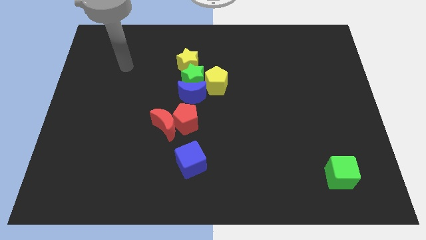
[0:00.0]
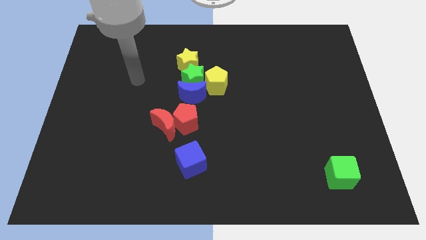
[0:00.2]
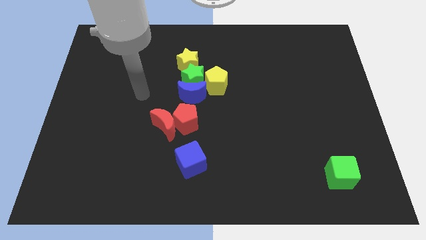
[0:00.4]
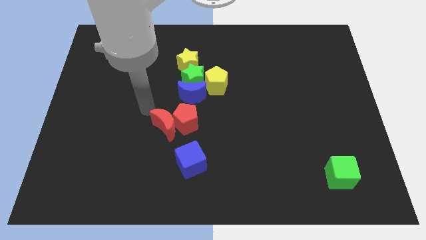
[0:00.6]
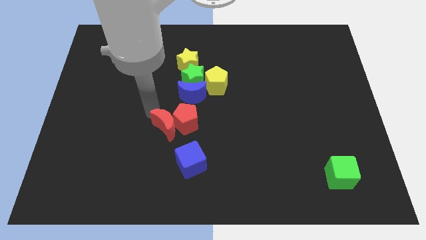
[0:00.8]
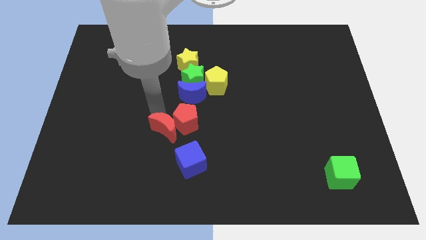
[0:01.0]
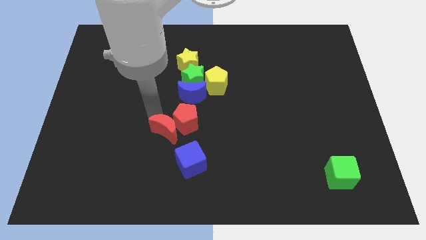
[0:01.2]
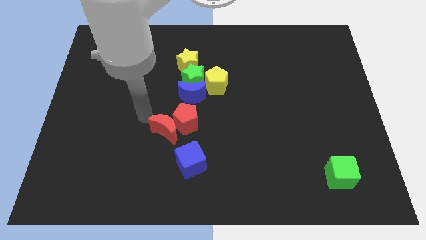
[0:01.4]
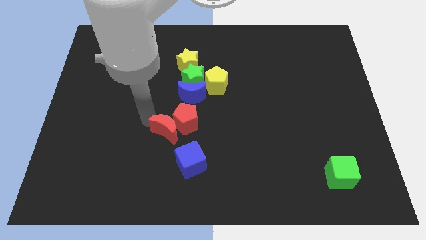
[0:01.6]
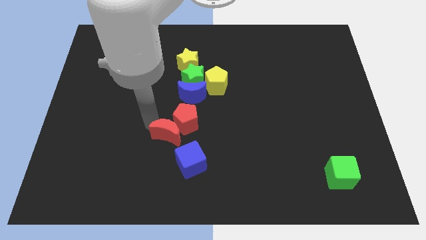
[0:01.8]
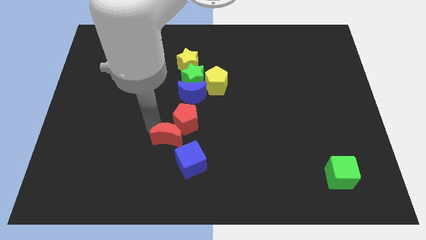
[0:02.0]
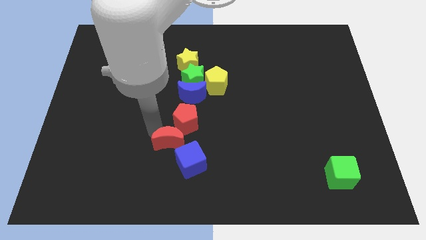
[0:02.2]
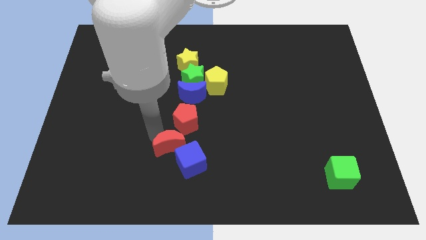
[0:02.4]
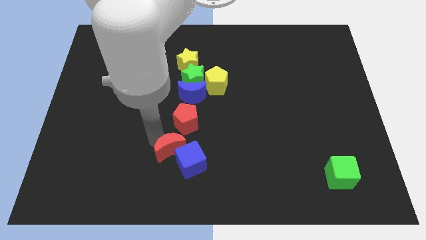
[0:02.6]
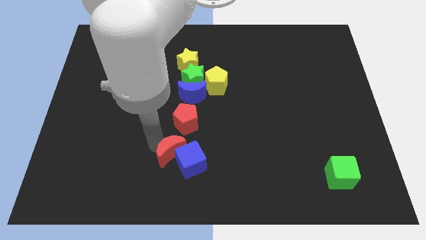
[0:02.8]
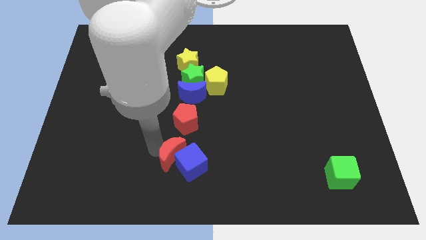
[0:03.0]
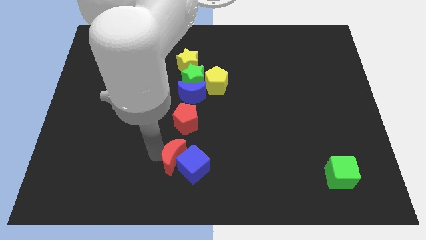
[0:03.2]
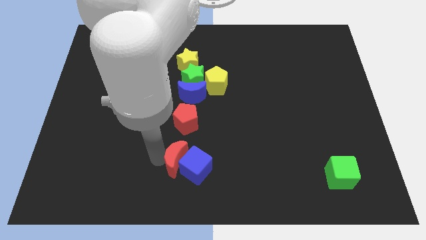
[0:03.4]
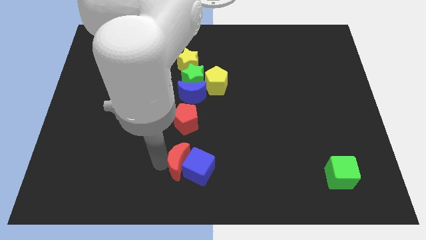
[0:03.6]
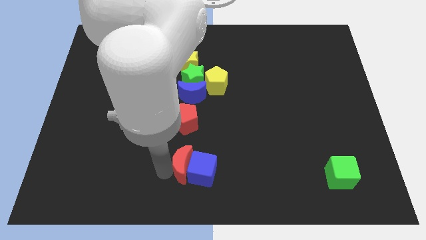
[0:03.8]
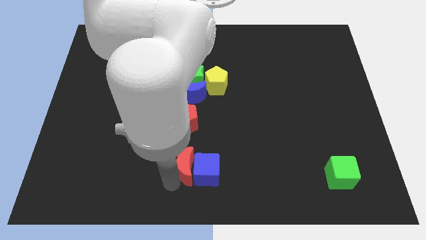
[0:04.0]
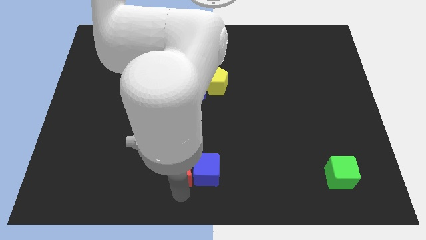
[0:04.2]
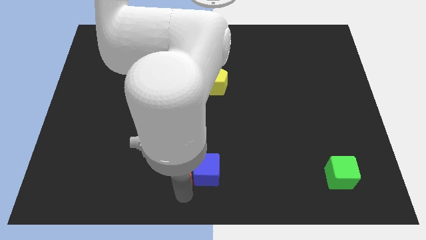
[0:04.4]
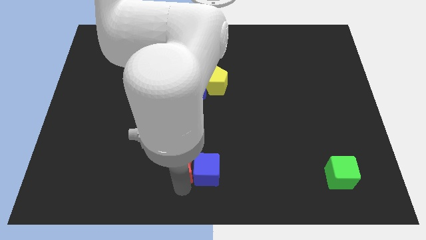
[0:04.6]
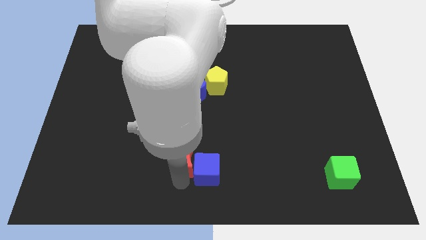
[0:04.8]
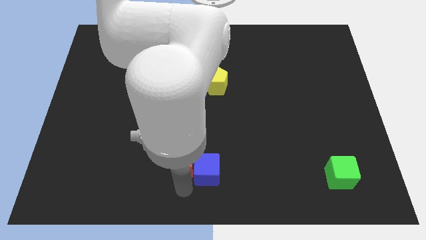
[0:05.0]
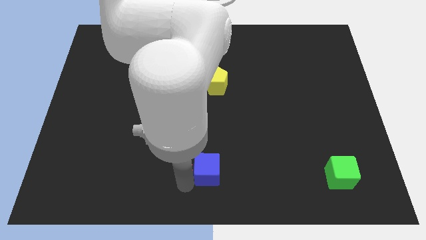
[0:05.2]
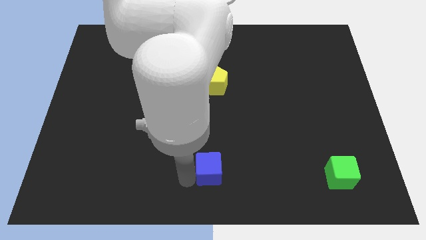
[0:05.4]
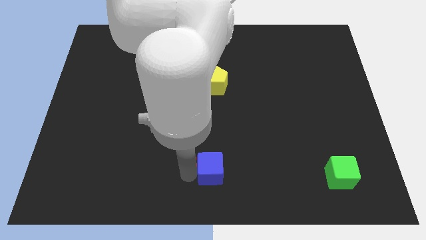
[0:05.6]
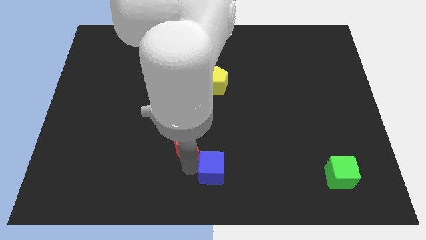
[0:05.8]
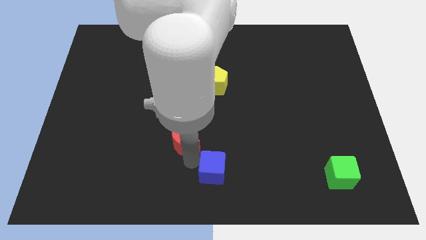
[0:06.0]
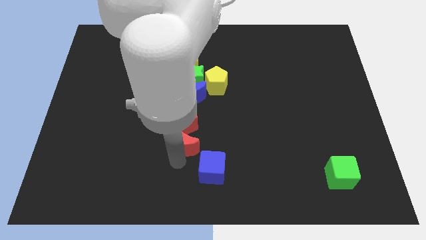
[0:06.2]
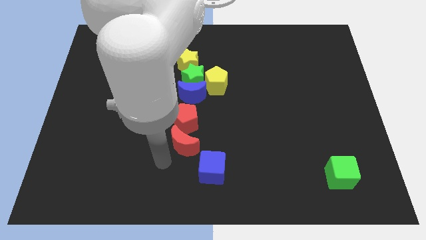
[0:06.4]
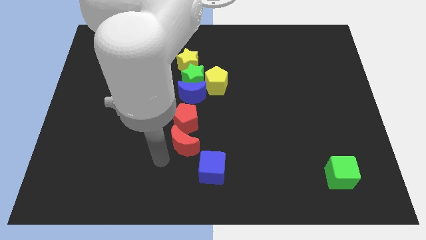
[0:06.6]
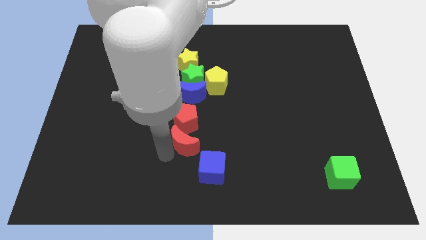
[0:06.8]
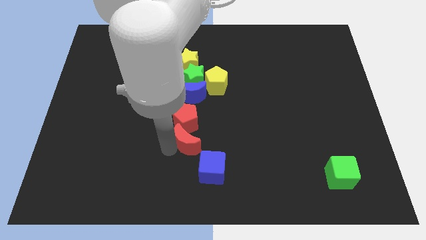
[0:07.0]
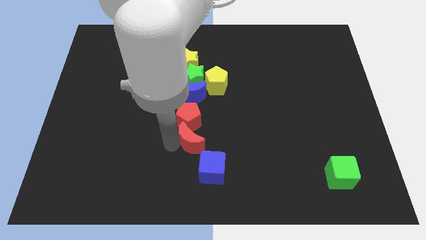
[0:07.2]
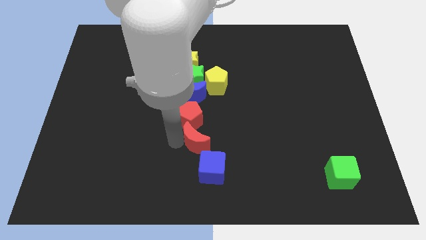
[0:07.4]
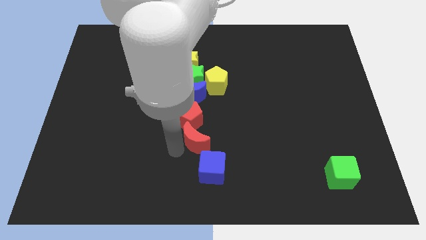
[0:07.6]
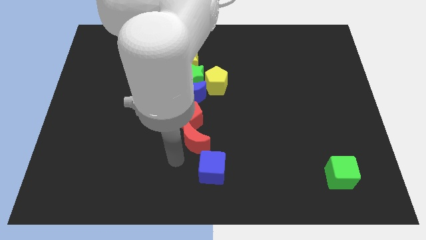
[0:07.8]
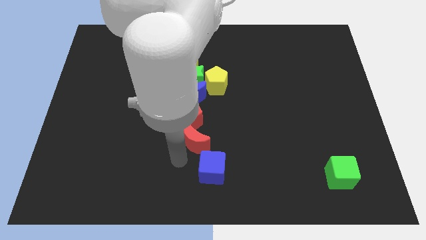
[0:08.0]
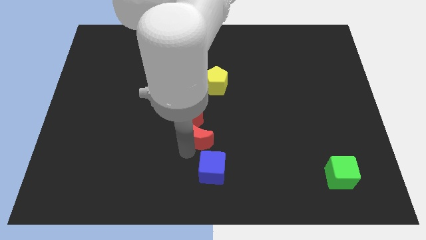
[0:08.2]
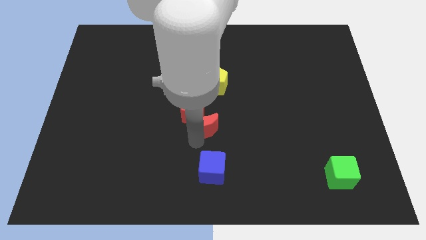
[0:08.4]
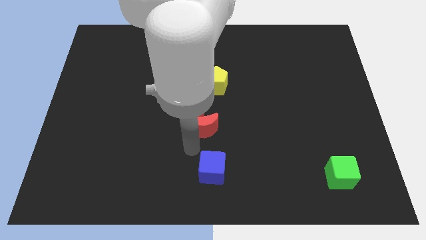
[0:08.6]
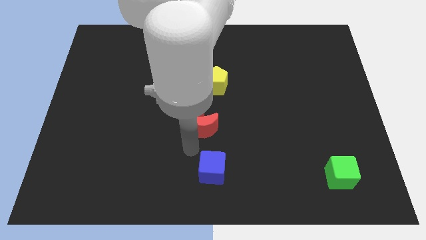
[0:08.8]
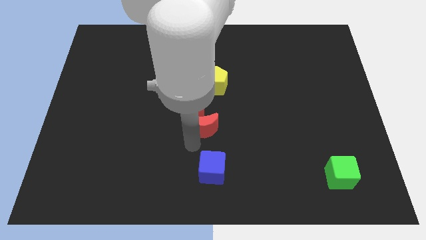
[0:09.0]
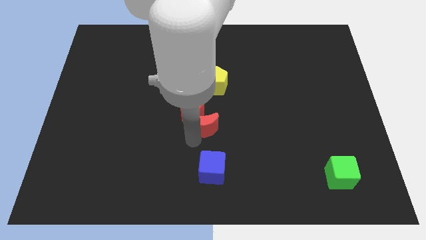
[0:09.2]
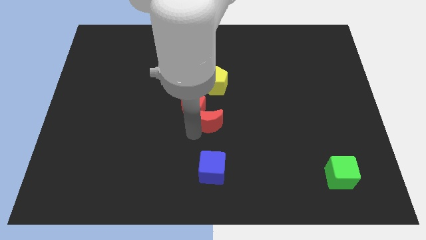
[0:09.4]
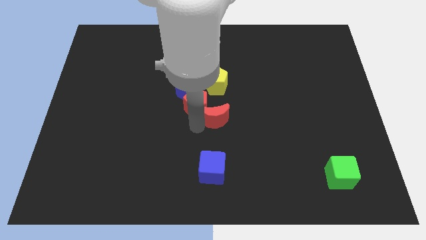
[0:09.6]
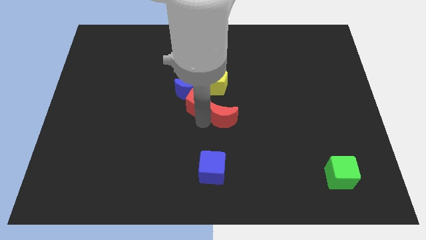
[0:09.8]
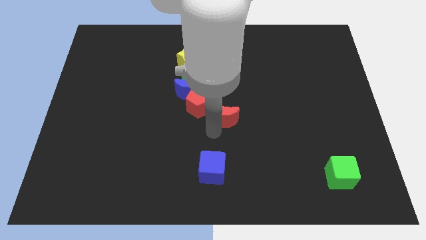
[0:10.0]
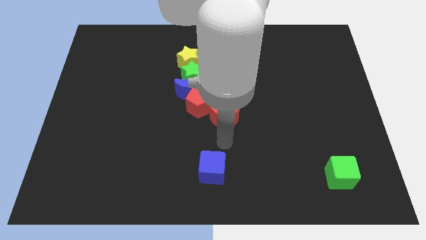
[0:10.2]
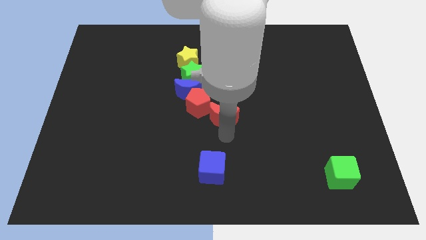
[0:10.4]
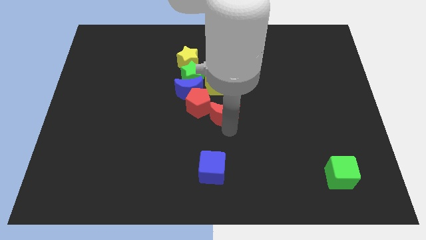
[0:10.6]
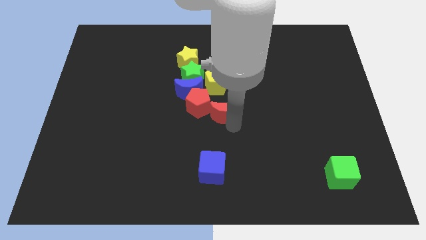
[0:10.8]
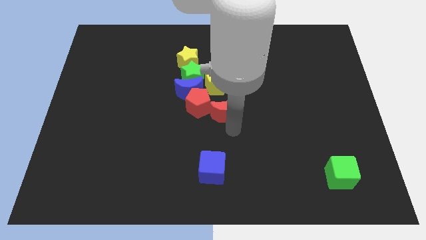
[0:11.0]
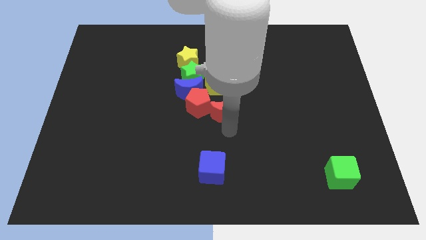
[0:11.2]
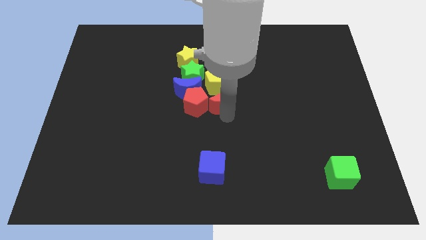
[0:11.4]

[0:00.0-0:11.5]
slide the red moon to the top right of the red pentagon

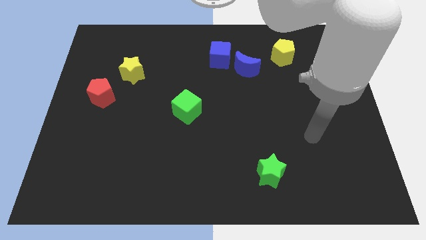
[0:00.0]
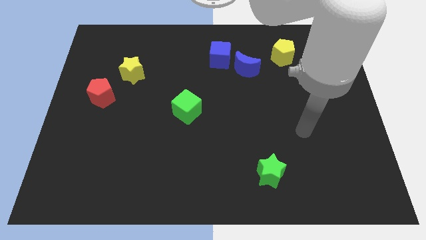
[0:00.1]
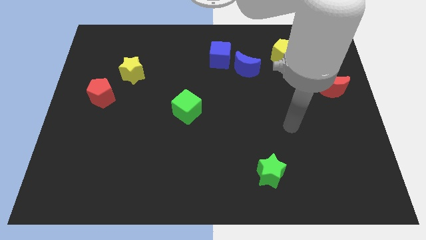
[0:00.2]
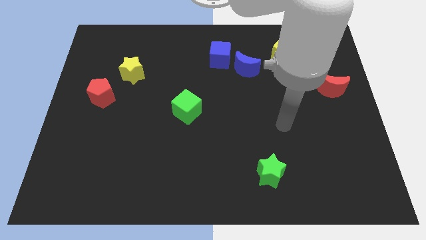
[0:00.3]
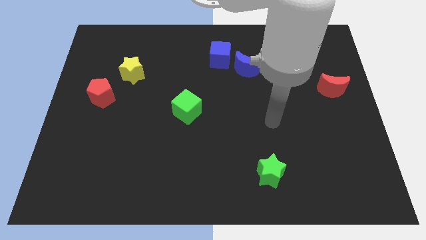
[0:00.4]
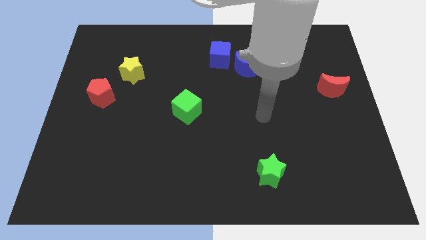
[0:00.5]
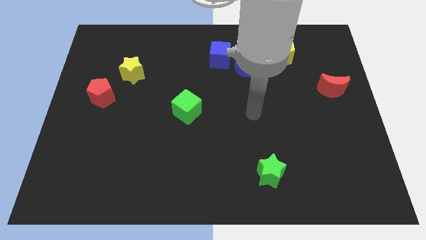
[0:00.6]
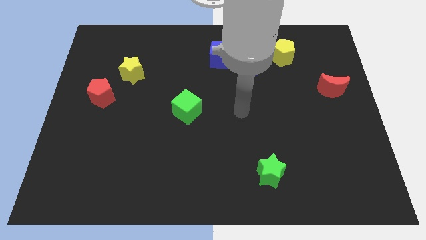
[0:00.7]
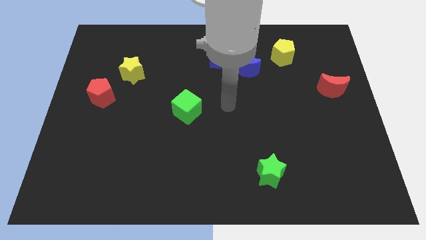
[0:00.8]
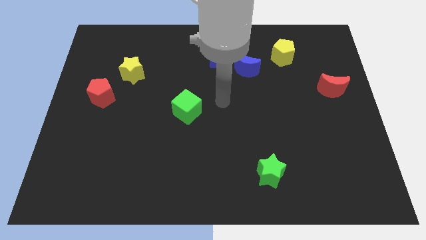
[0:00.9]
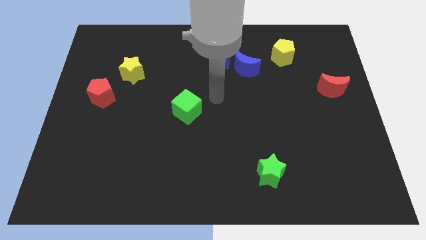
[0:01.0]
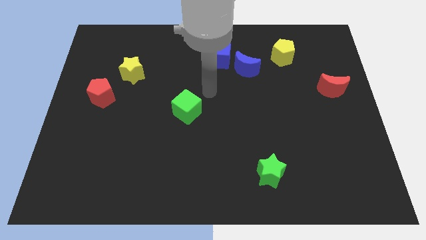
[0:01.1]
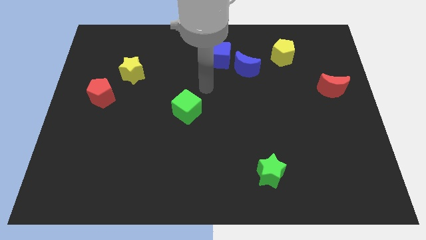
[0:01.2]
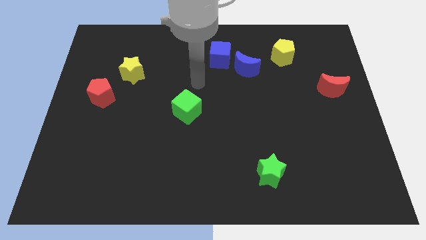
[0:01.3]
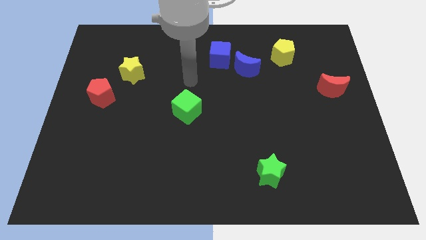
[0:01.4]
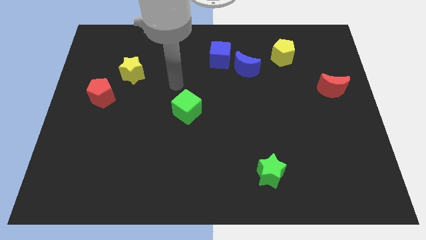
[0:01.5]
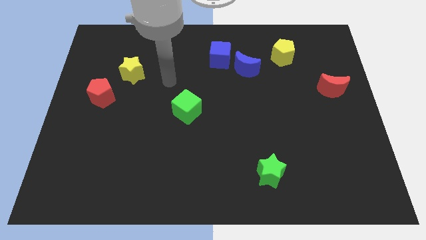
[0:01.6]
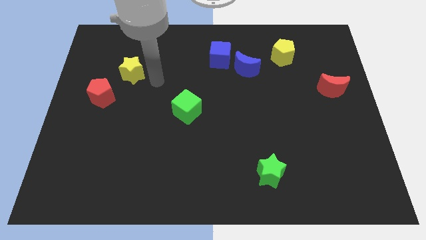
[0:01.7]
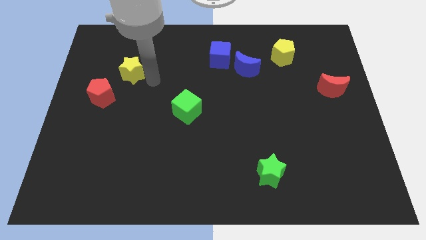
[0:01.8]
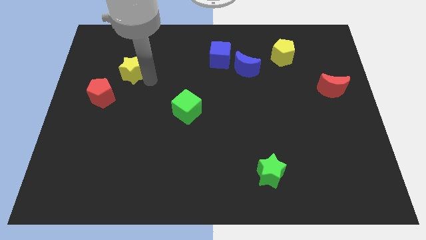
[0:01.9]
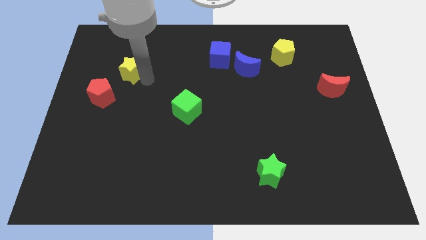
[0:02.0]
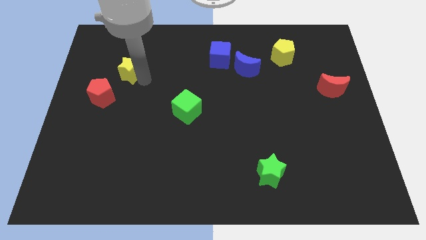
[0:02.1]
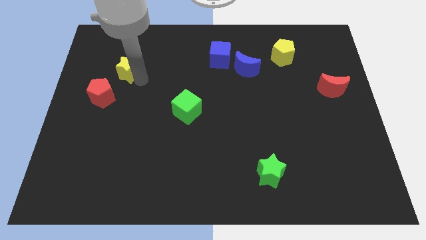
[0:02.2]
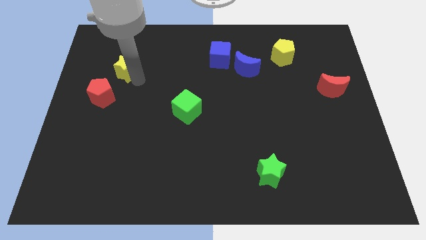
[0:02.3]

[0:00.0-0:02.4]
push the yellow star above the red pentagon
